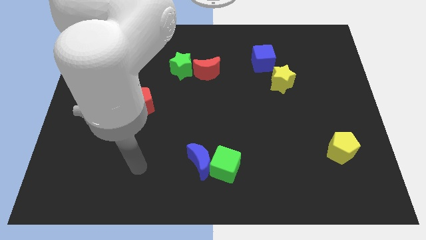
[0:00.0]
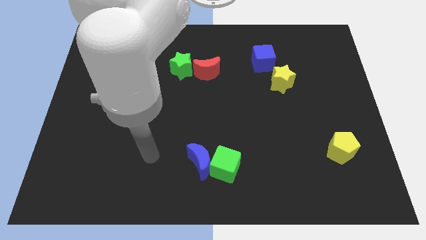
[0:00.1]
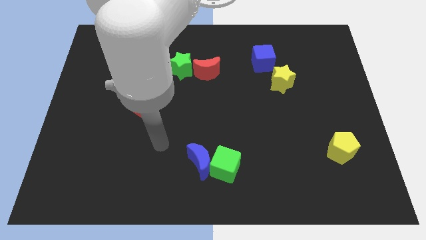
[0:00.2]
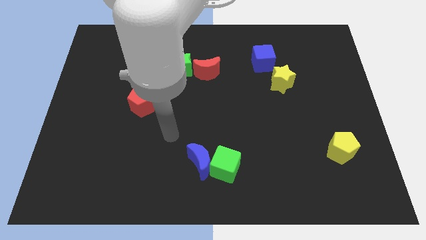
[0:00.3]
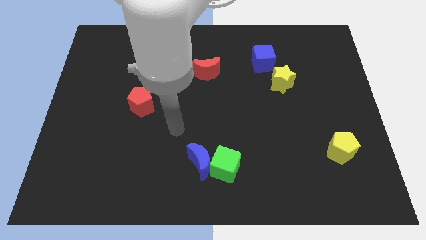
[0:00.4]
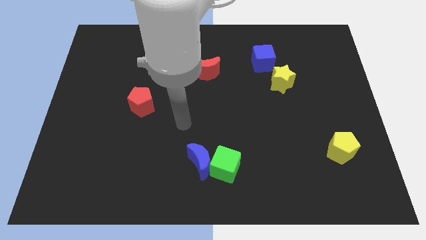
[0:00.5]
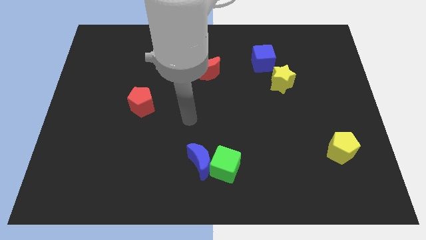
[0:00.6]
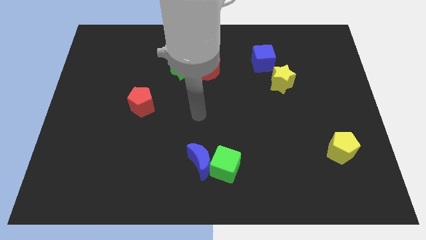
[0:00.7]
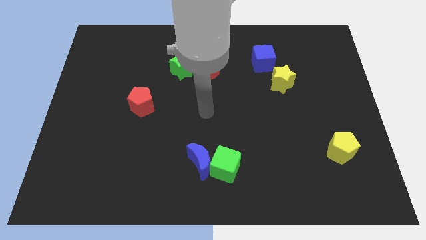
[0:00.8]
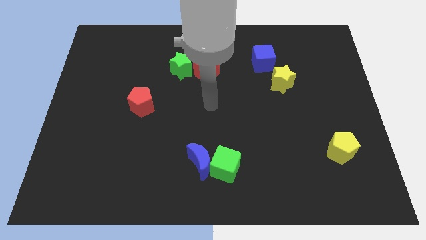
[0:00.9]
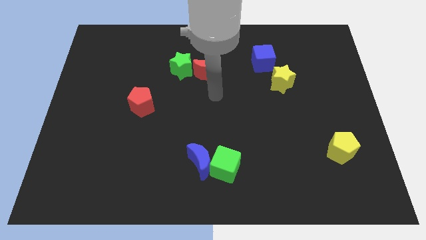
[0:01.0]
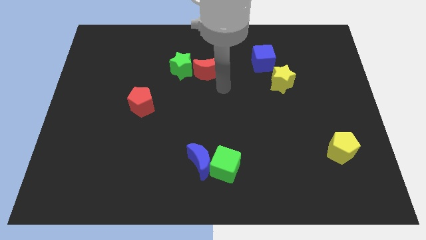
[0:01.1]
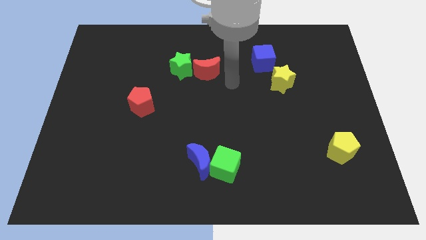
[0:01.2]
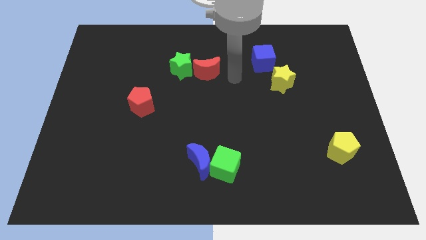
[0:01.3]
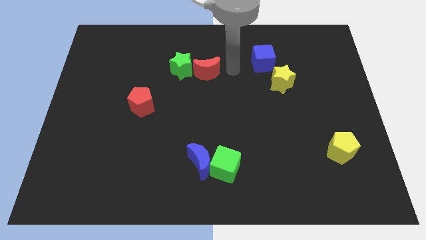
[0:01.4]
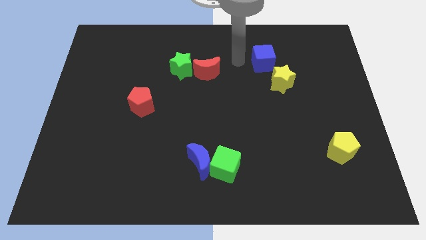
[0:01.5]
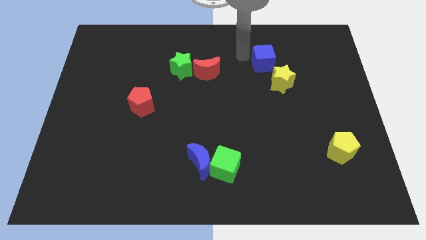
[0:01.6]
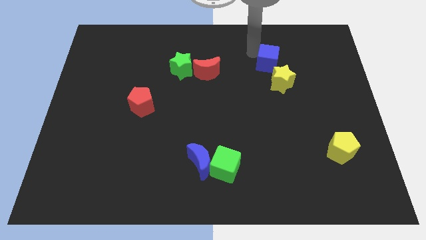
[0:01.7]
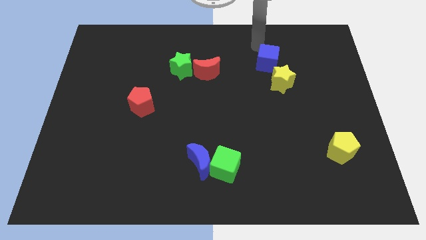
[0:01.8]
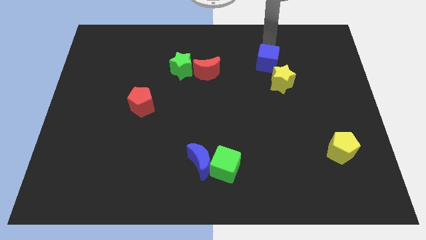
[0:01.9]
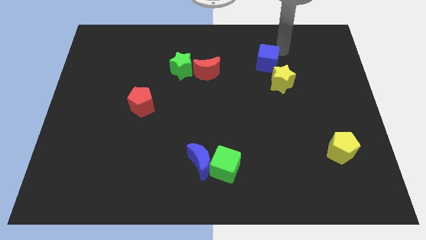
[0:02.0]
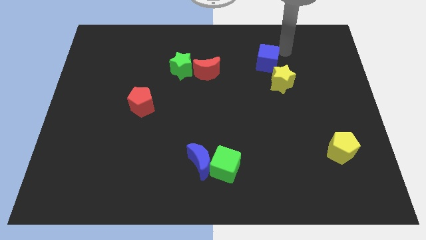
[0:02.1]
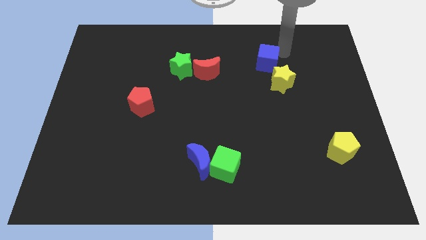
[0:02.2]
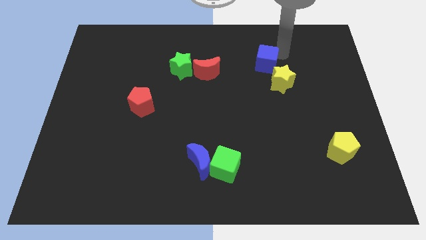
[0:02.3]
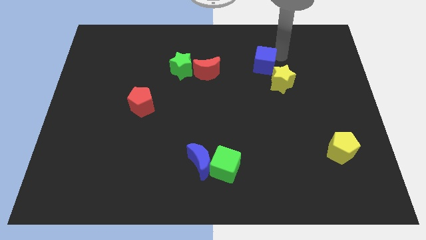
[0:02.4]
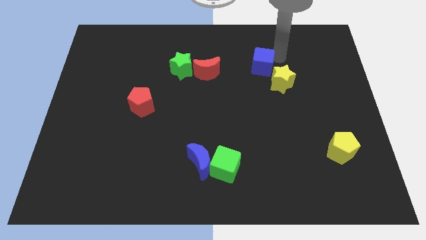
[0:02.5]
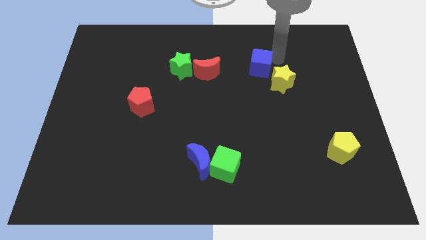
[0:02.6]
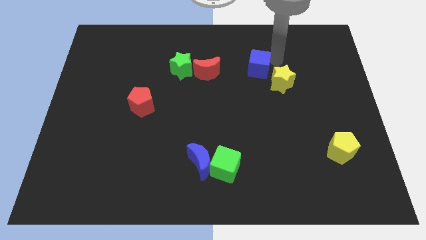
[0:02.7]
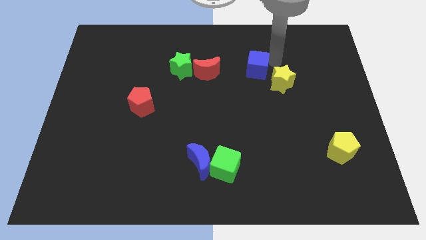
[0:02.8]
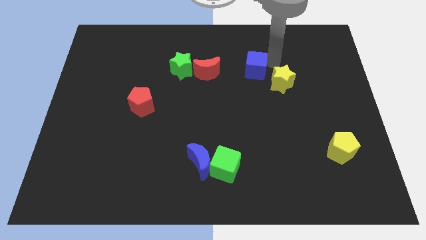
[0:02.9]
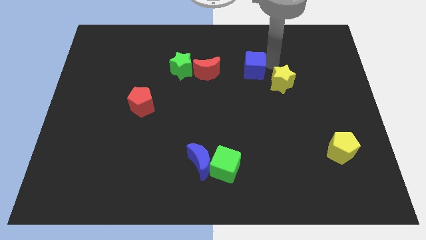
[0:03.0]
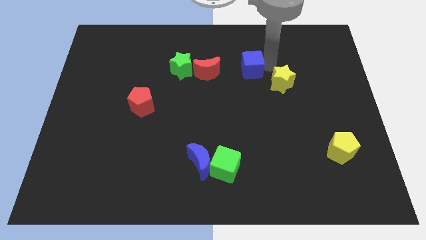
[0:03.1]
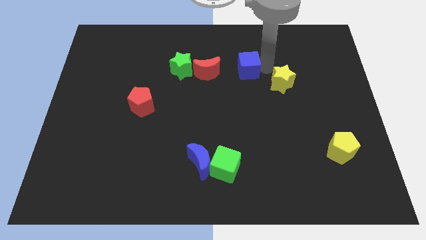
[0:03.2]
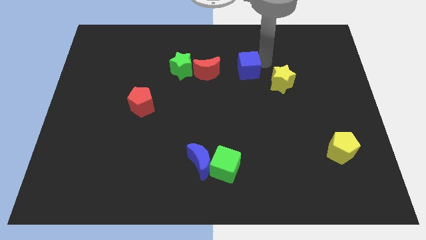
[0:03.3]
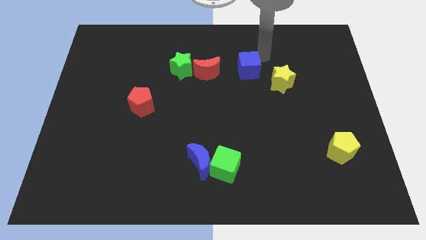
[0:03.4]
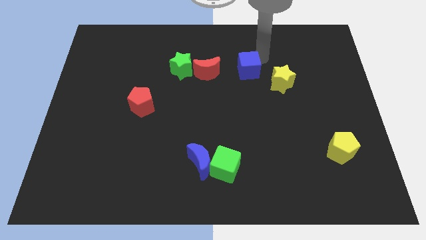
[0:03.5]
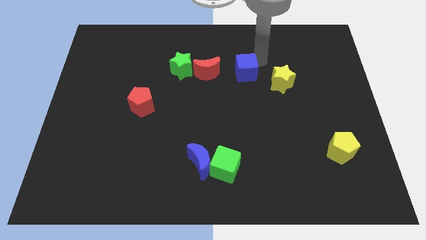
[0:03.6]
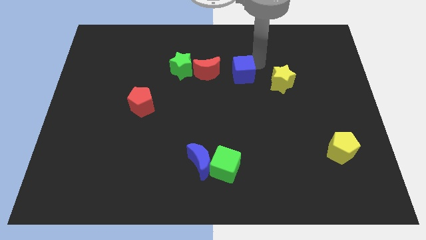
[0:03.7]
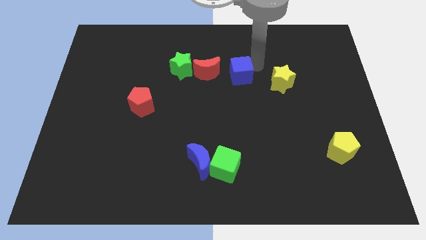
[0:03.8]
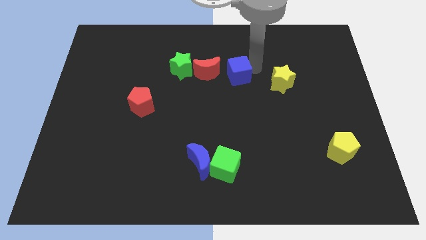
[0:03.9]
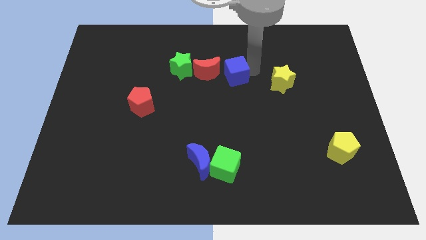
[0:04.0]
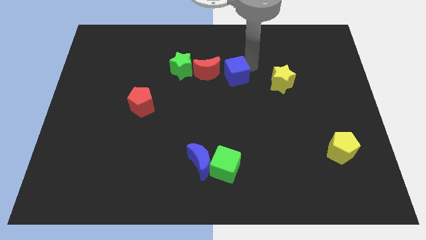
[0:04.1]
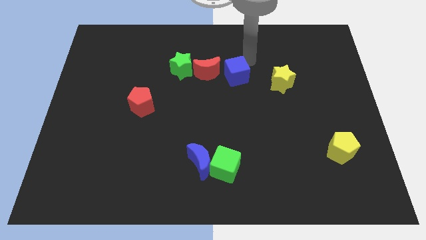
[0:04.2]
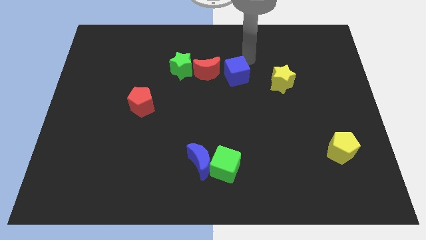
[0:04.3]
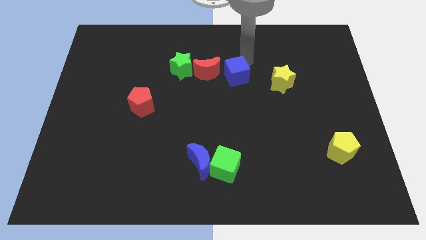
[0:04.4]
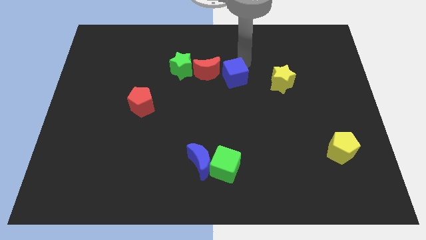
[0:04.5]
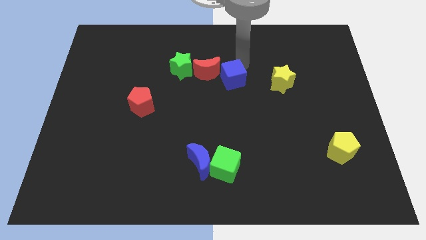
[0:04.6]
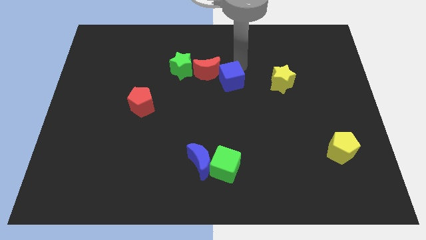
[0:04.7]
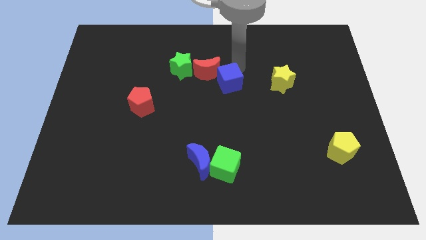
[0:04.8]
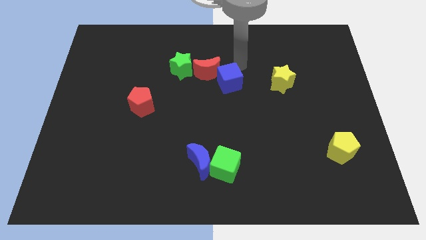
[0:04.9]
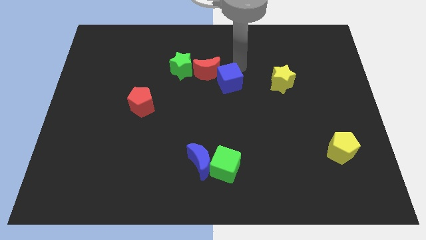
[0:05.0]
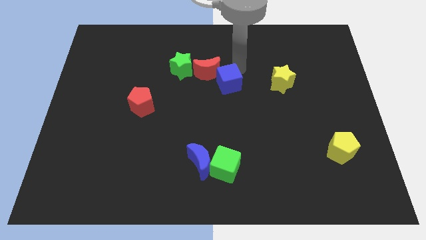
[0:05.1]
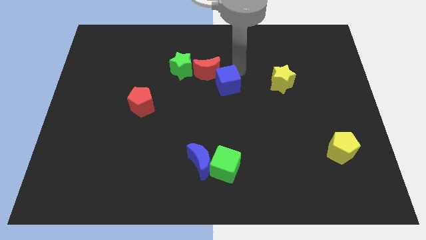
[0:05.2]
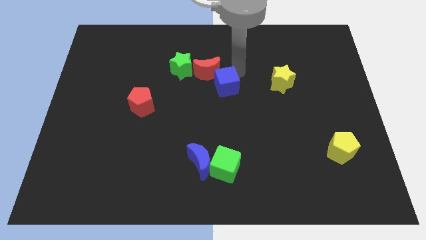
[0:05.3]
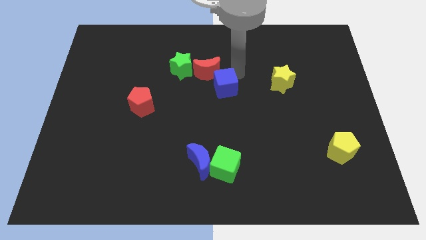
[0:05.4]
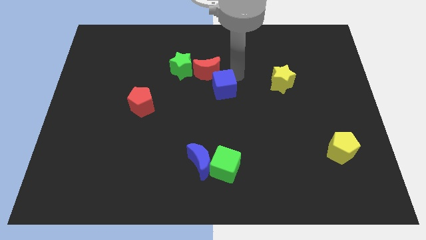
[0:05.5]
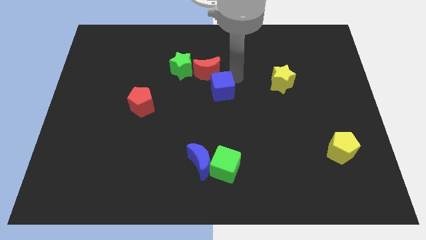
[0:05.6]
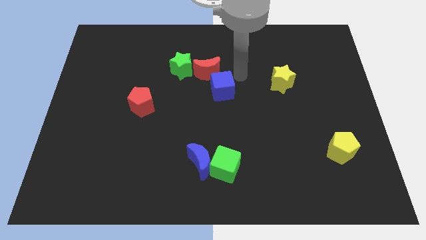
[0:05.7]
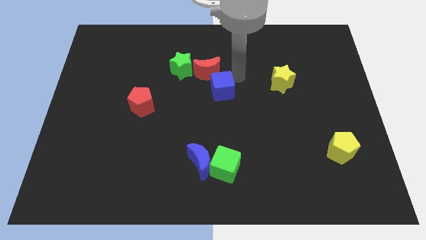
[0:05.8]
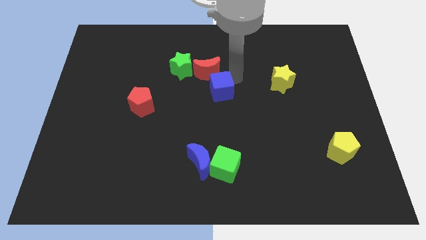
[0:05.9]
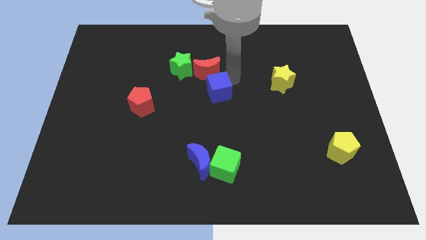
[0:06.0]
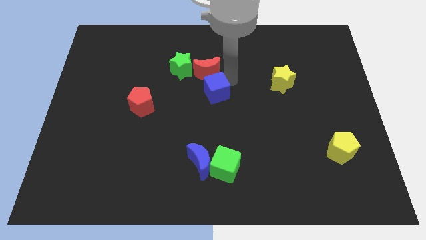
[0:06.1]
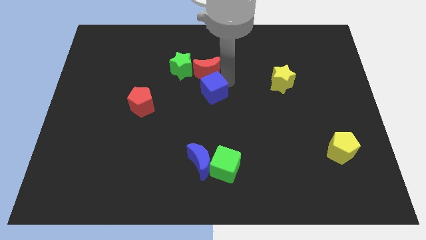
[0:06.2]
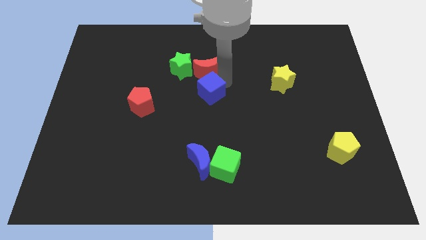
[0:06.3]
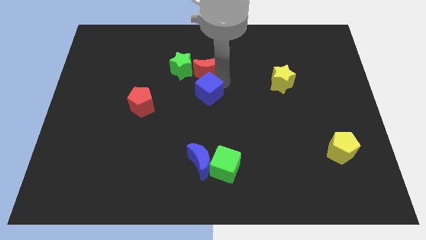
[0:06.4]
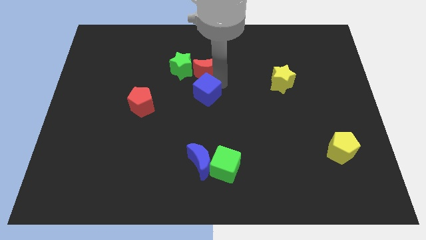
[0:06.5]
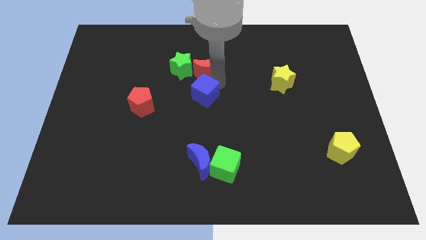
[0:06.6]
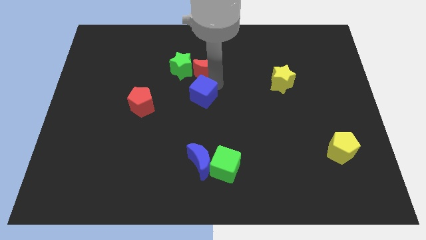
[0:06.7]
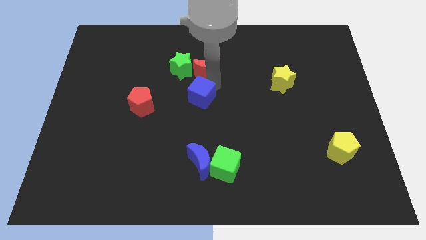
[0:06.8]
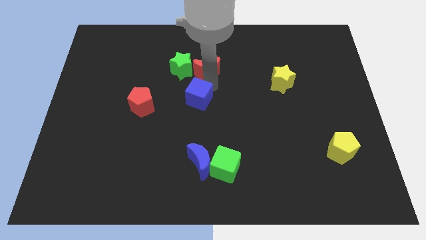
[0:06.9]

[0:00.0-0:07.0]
slide the blue cube downwards and to the left diagonally

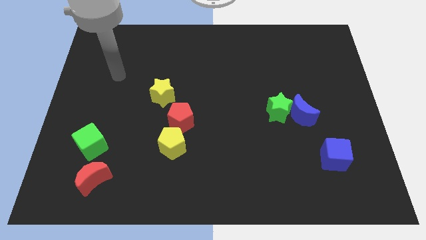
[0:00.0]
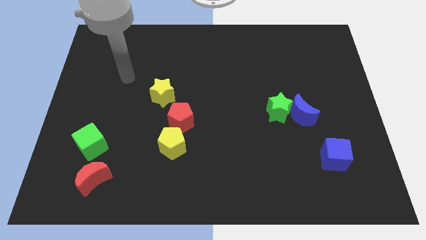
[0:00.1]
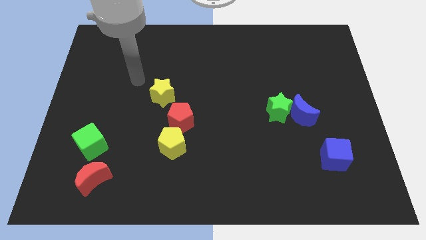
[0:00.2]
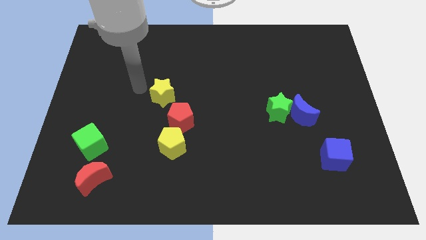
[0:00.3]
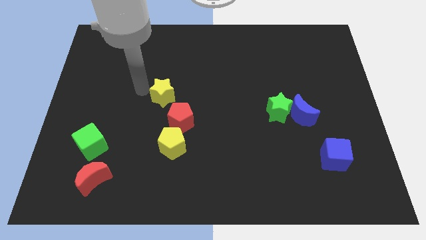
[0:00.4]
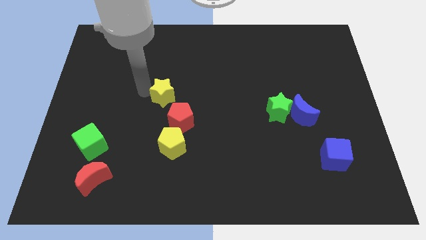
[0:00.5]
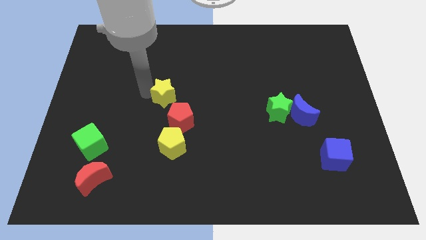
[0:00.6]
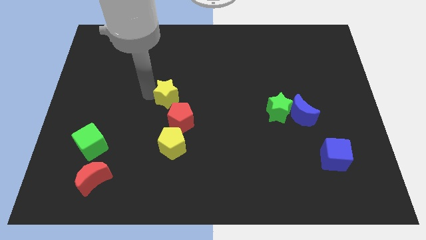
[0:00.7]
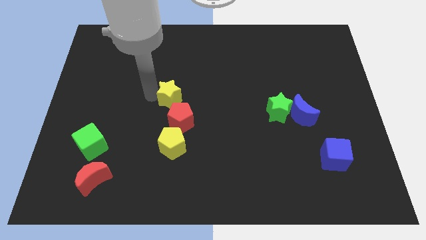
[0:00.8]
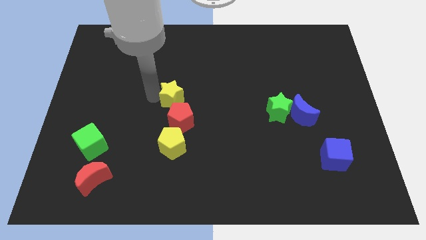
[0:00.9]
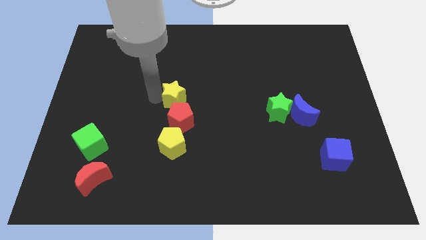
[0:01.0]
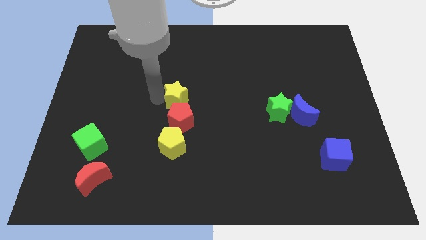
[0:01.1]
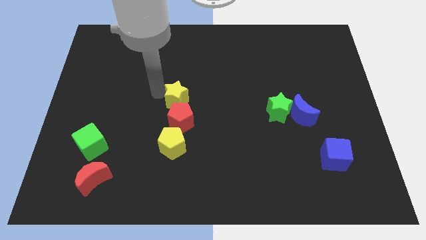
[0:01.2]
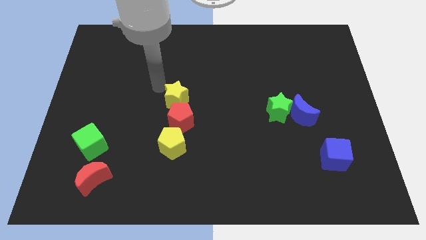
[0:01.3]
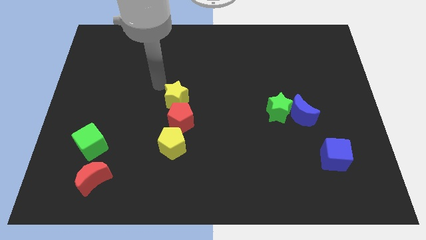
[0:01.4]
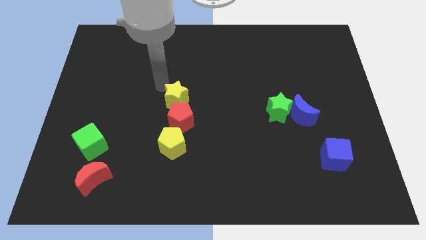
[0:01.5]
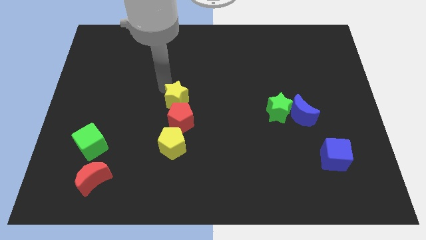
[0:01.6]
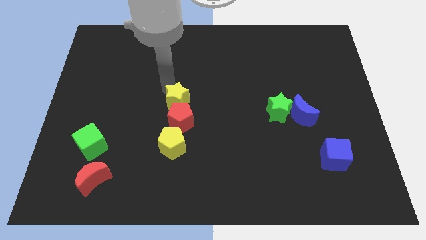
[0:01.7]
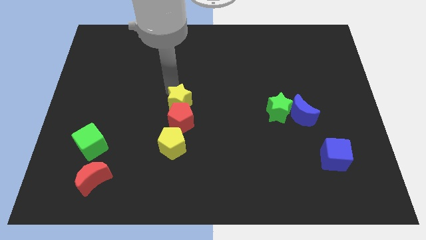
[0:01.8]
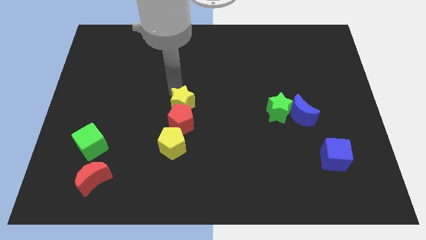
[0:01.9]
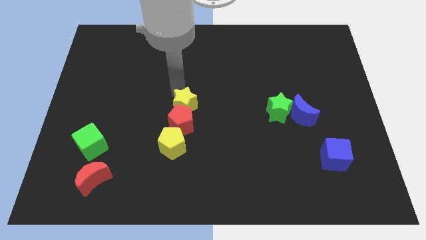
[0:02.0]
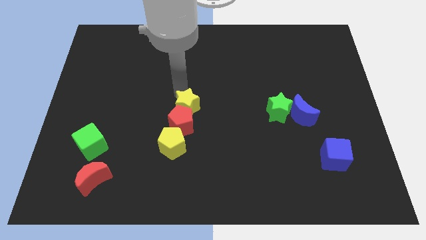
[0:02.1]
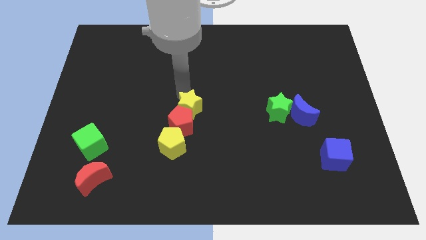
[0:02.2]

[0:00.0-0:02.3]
slightly push the yellow star downwards and right diagonally
